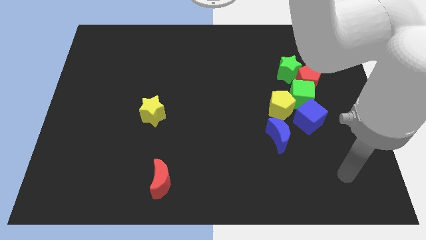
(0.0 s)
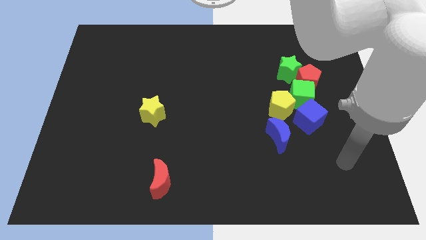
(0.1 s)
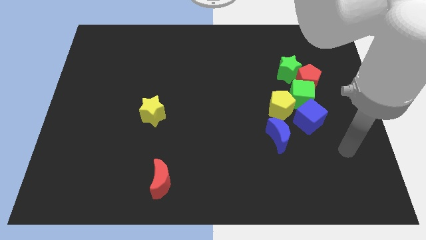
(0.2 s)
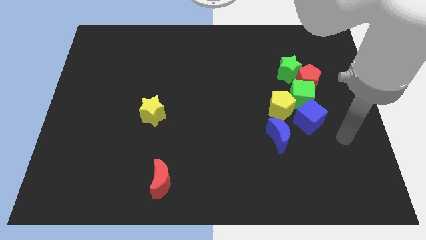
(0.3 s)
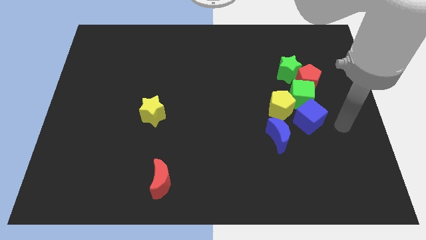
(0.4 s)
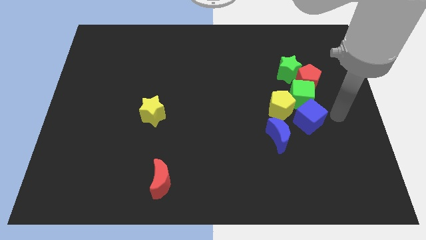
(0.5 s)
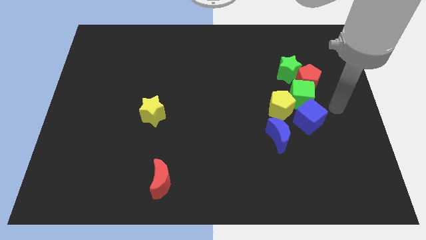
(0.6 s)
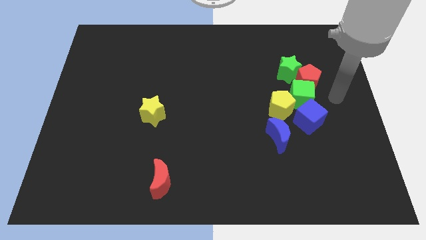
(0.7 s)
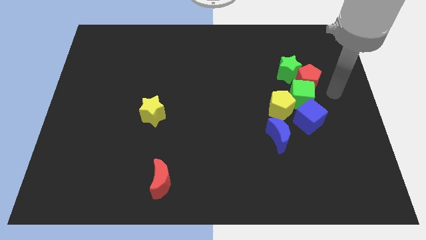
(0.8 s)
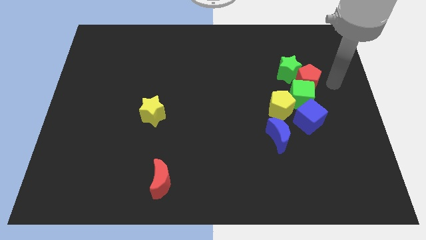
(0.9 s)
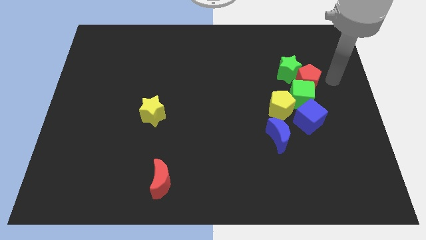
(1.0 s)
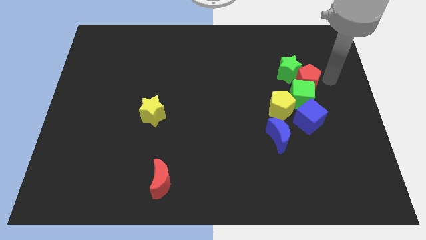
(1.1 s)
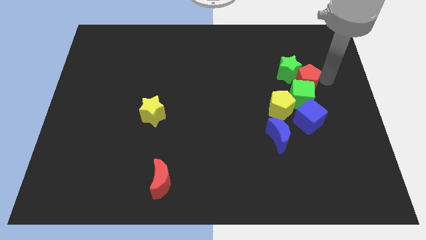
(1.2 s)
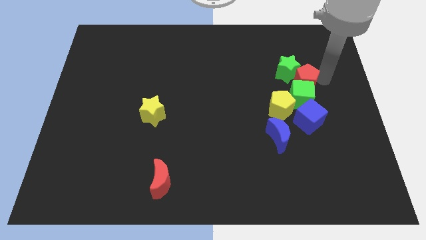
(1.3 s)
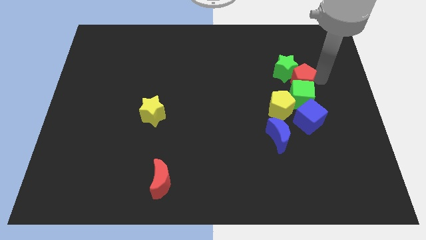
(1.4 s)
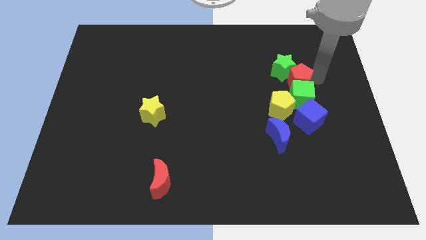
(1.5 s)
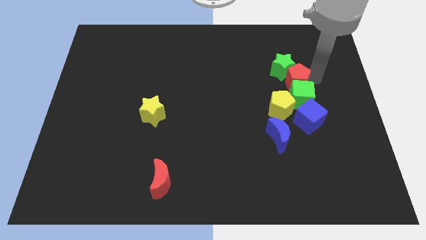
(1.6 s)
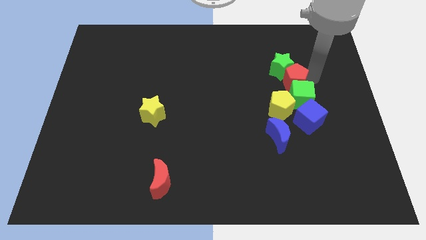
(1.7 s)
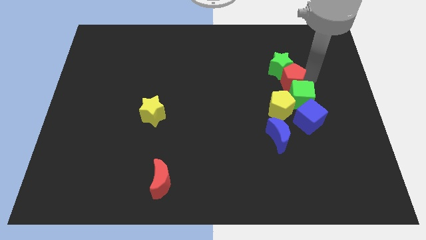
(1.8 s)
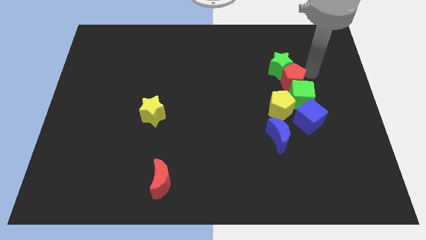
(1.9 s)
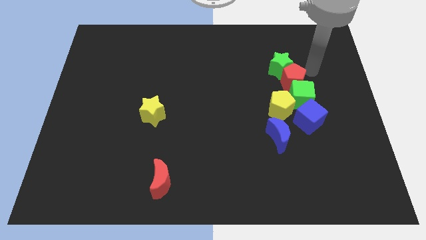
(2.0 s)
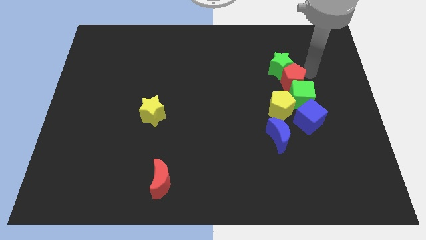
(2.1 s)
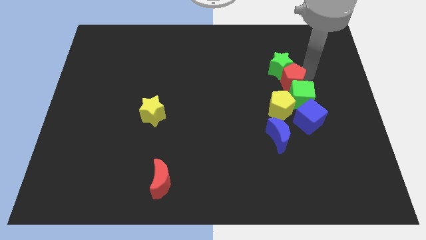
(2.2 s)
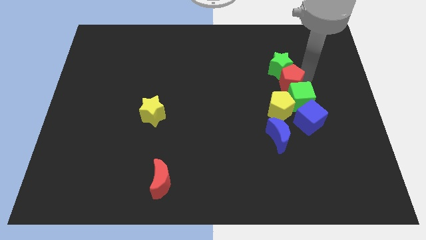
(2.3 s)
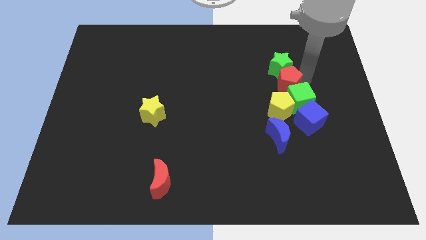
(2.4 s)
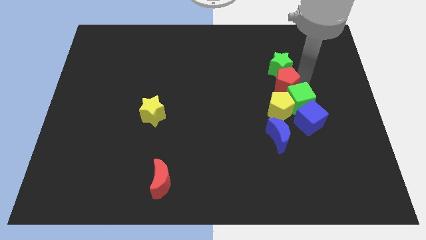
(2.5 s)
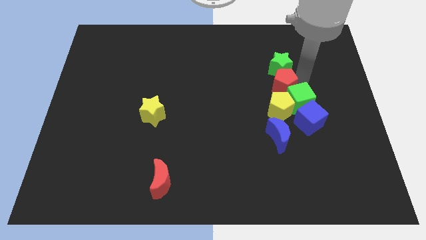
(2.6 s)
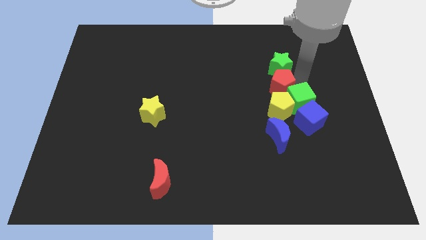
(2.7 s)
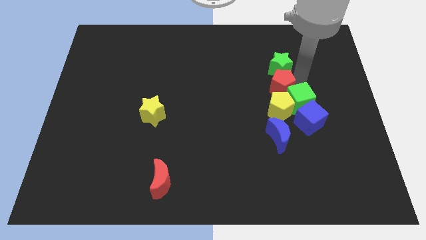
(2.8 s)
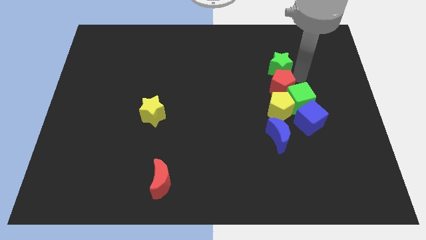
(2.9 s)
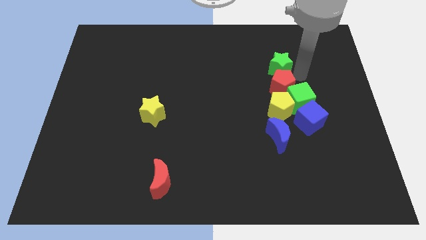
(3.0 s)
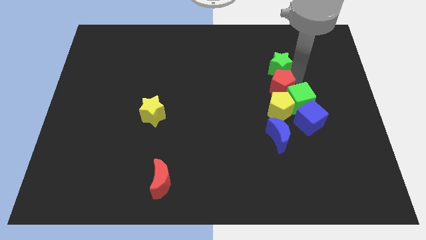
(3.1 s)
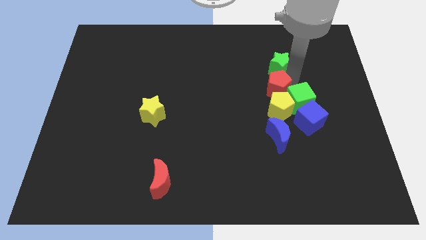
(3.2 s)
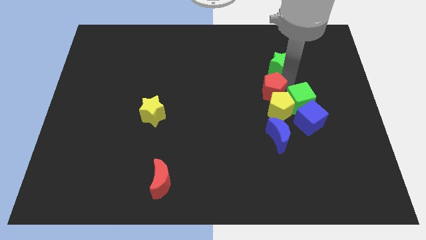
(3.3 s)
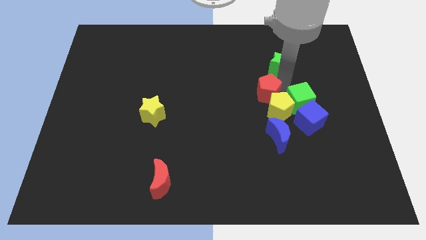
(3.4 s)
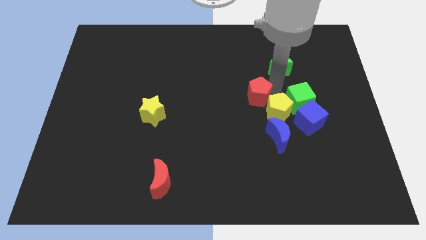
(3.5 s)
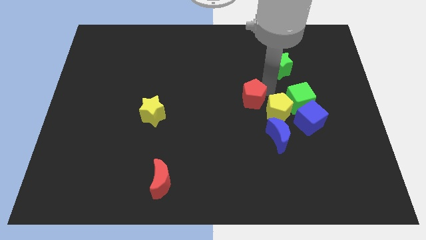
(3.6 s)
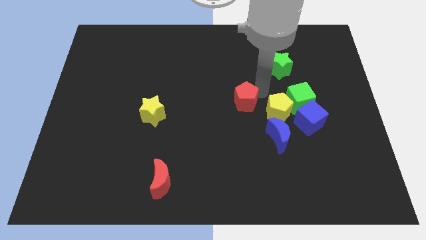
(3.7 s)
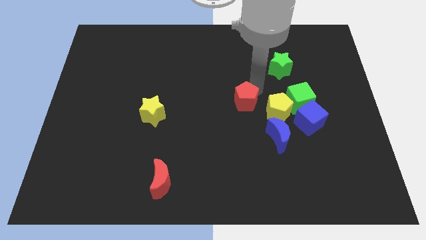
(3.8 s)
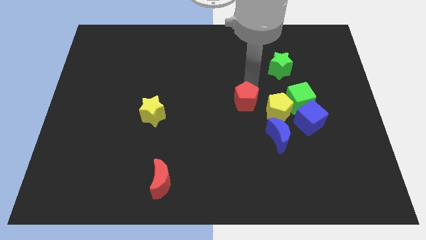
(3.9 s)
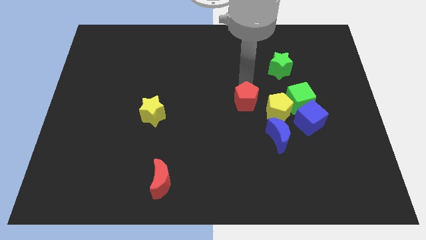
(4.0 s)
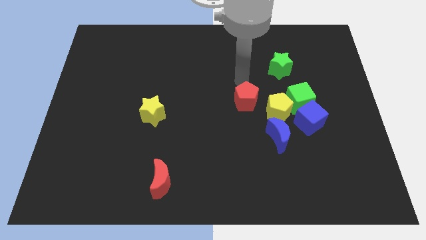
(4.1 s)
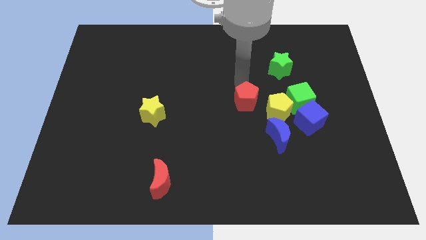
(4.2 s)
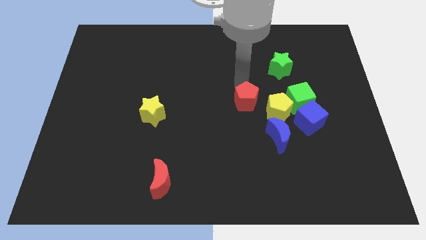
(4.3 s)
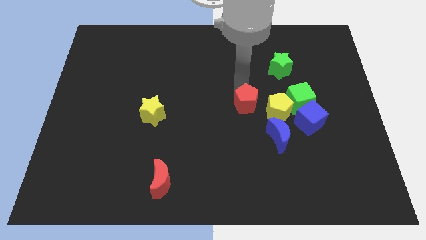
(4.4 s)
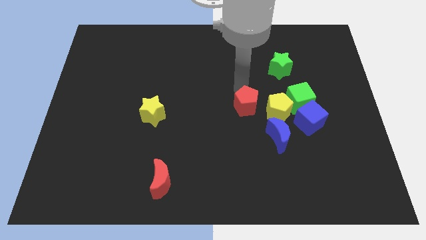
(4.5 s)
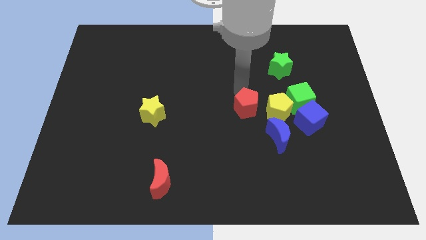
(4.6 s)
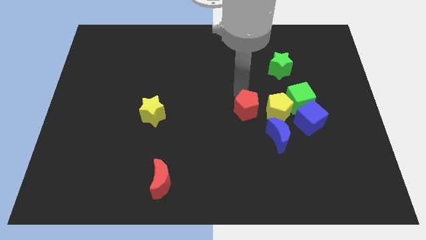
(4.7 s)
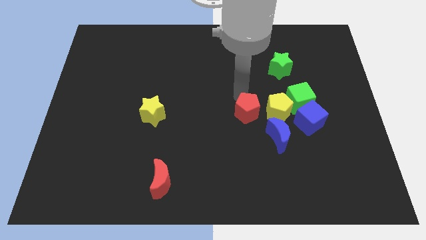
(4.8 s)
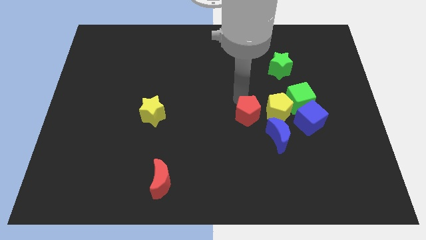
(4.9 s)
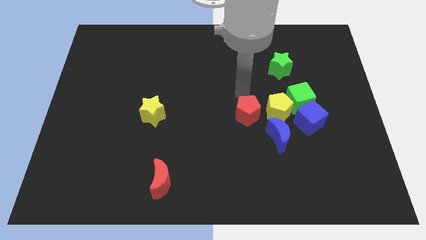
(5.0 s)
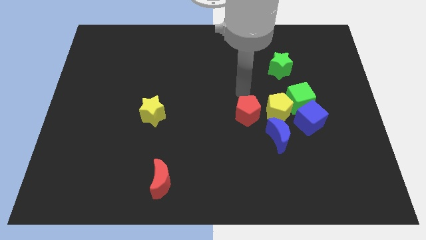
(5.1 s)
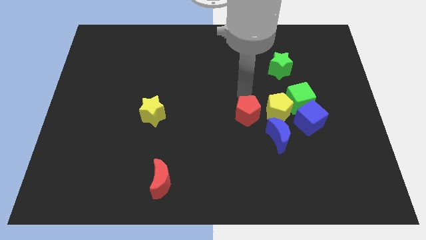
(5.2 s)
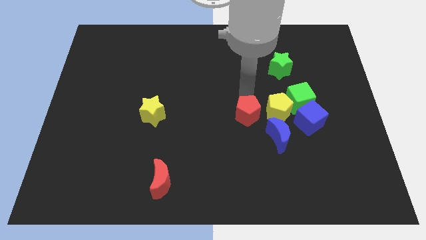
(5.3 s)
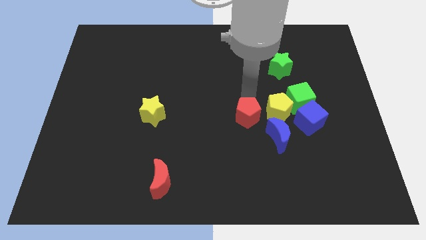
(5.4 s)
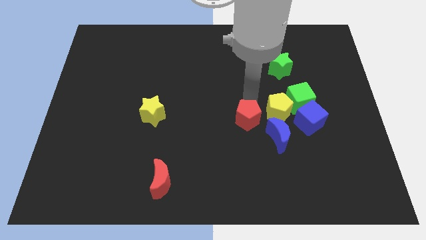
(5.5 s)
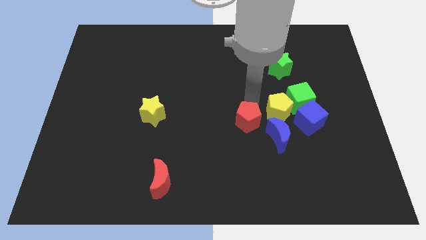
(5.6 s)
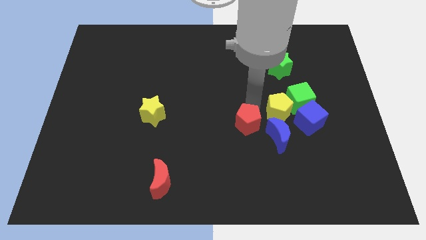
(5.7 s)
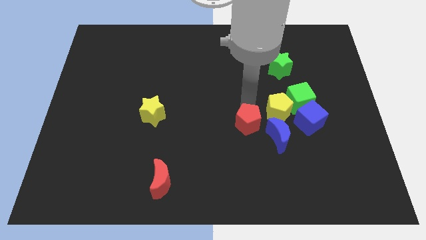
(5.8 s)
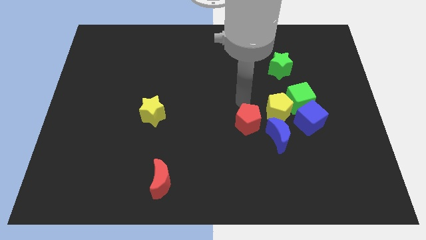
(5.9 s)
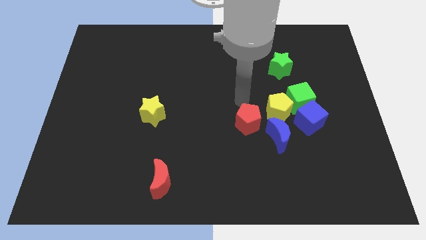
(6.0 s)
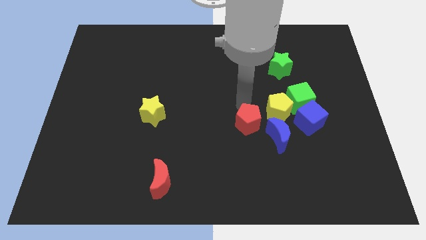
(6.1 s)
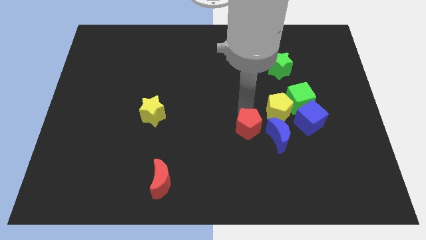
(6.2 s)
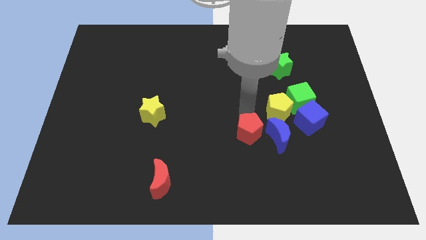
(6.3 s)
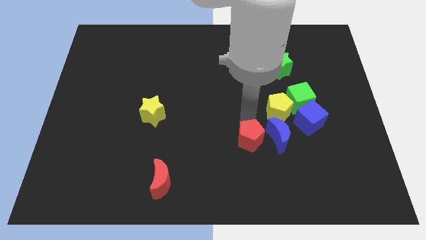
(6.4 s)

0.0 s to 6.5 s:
move the red pentagon diagonally down and to the left of the blue moon
